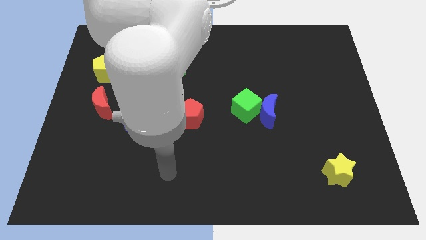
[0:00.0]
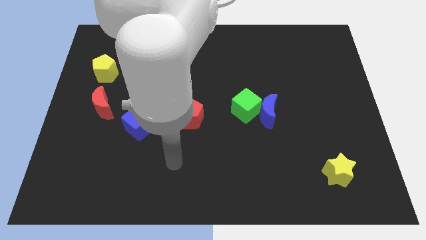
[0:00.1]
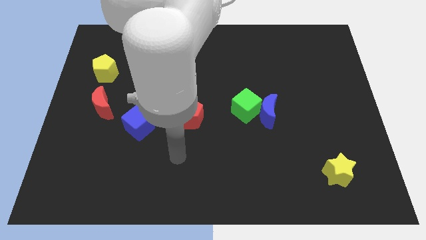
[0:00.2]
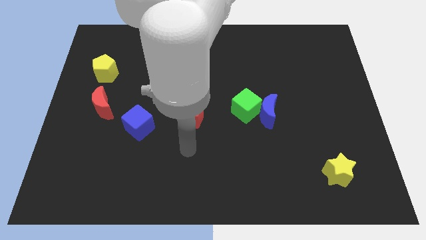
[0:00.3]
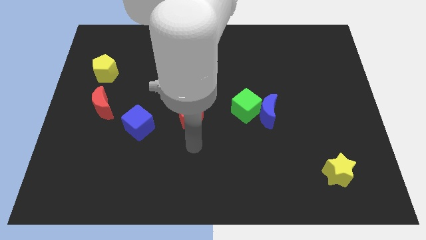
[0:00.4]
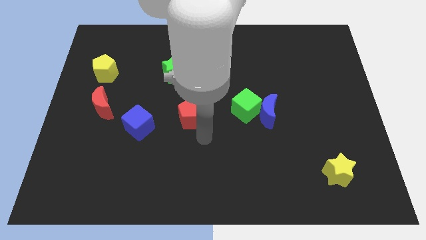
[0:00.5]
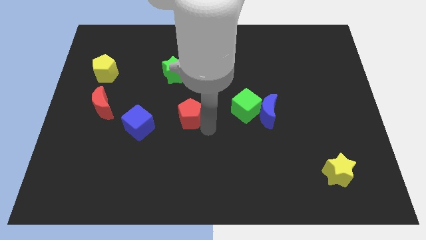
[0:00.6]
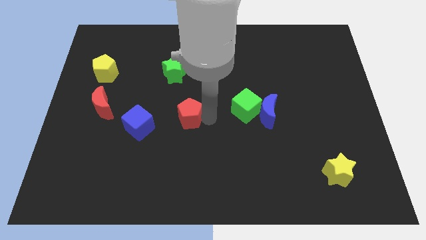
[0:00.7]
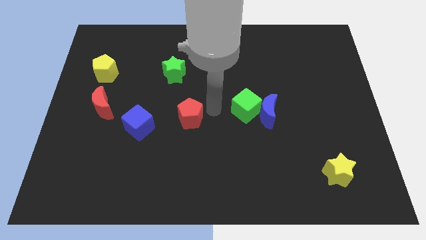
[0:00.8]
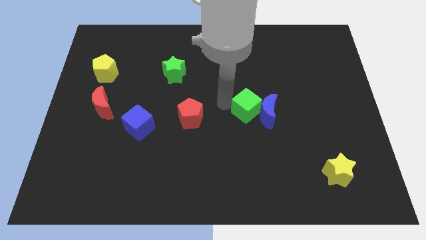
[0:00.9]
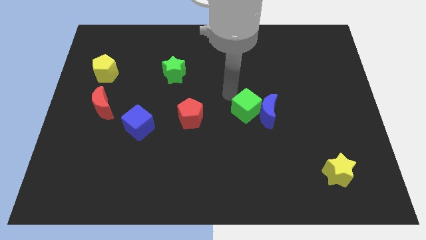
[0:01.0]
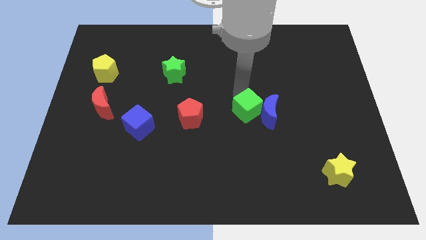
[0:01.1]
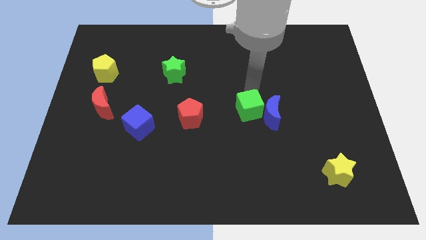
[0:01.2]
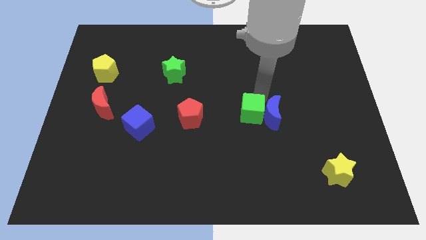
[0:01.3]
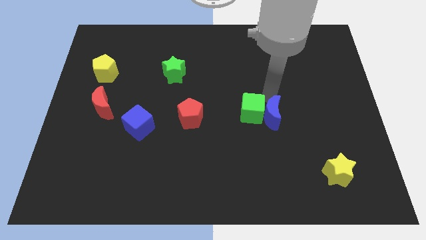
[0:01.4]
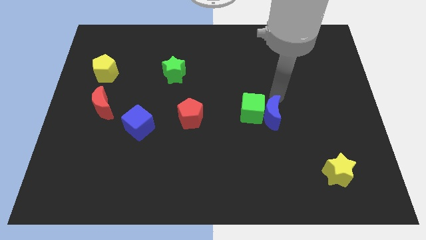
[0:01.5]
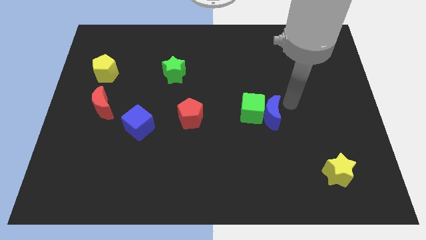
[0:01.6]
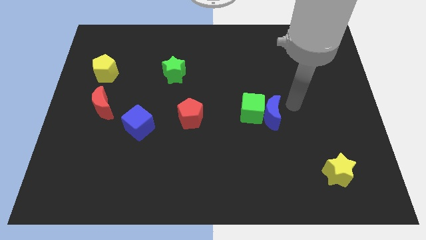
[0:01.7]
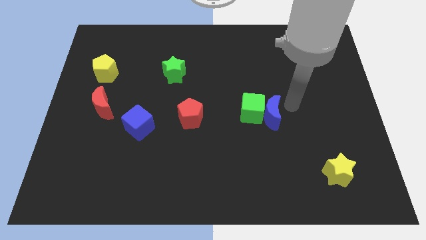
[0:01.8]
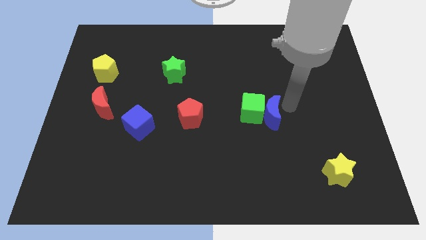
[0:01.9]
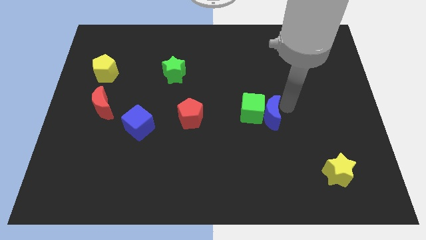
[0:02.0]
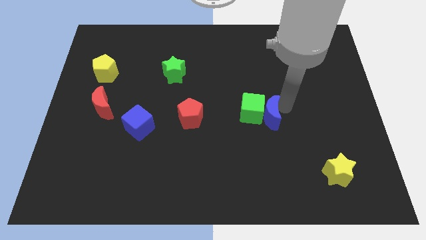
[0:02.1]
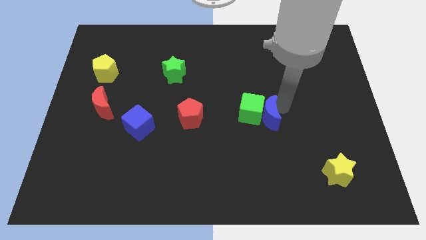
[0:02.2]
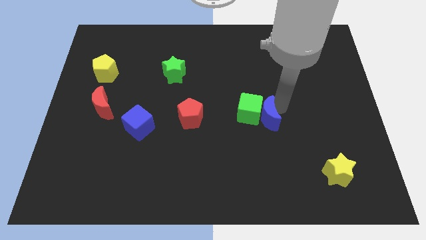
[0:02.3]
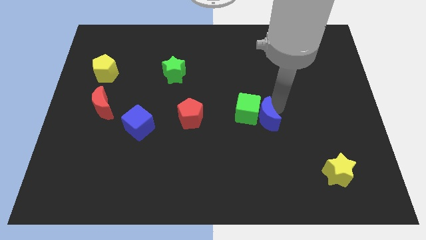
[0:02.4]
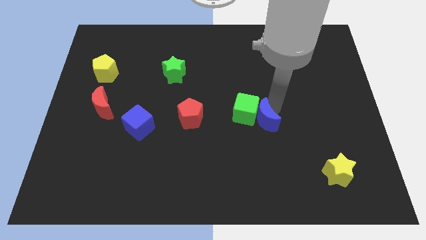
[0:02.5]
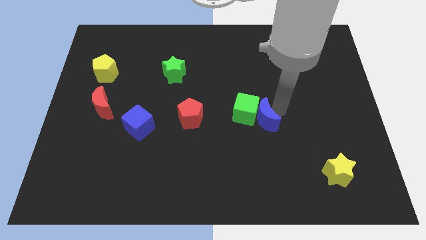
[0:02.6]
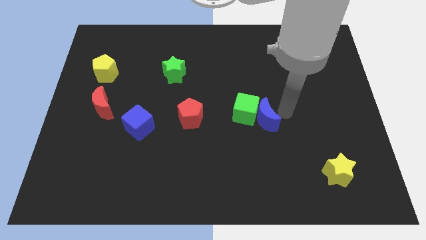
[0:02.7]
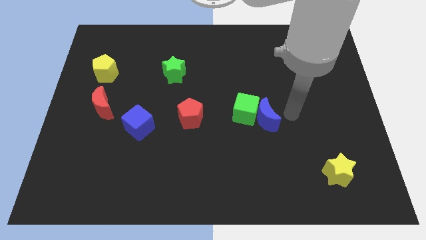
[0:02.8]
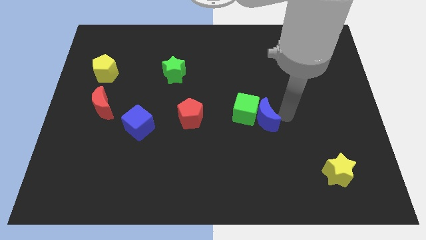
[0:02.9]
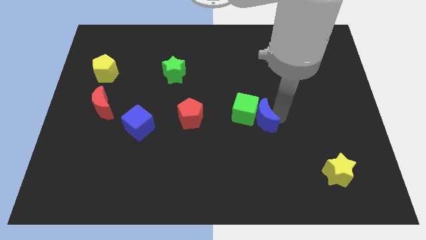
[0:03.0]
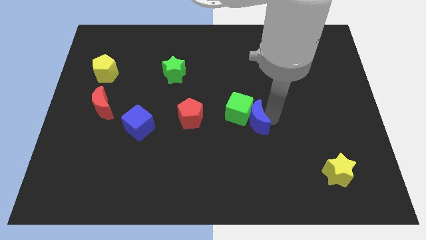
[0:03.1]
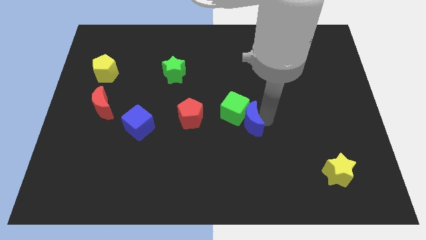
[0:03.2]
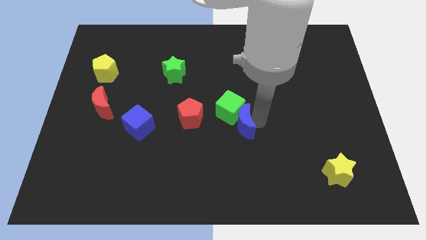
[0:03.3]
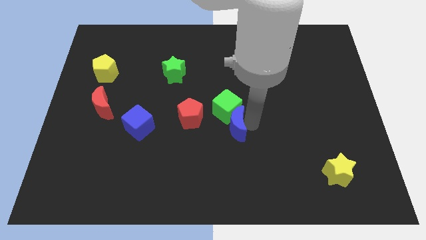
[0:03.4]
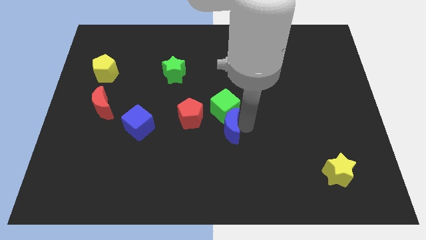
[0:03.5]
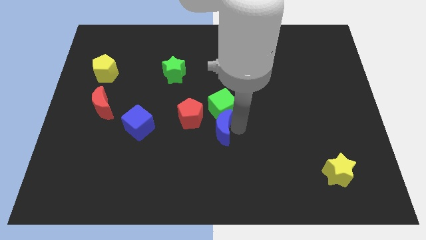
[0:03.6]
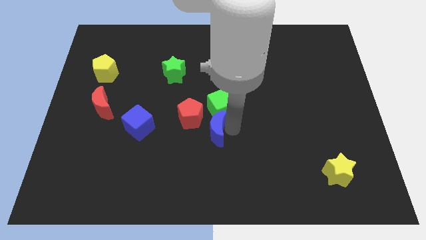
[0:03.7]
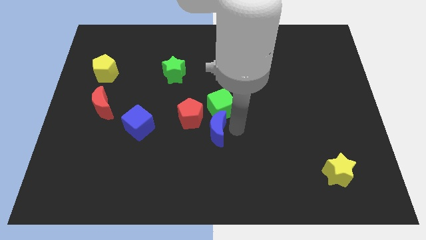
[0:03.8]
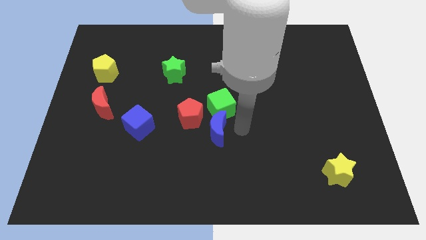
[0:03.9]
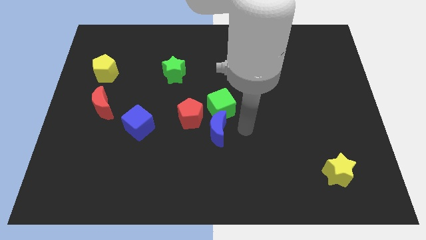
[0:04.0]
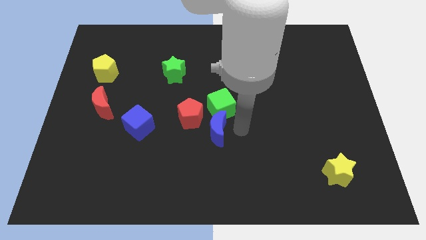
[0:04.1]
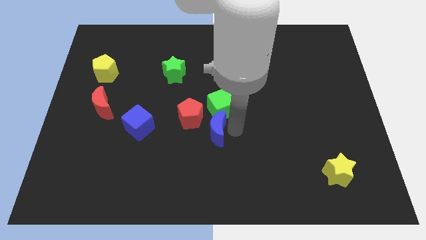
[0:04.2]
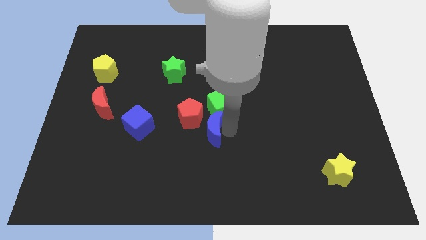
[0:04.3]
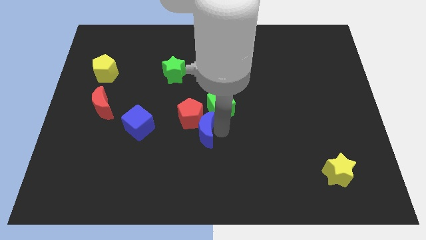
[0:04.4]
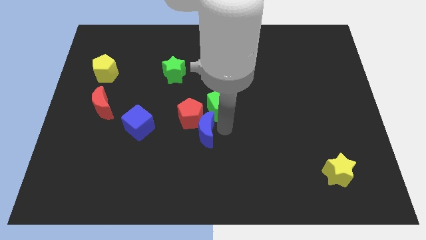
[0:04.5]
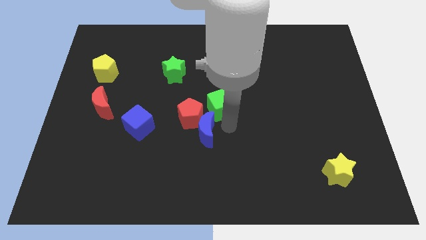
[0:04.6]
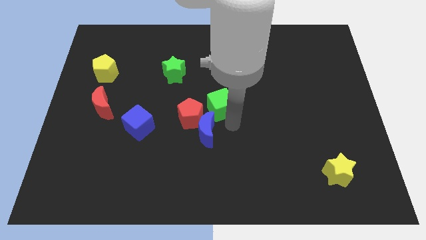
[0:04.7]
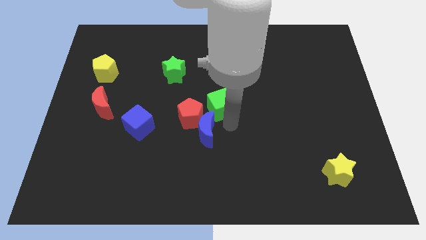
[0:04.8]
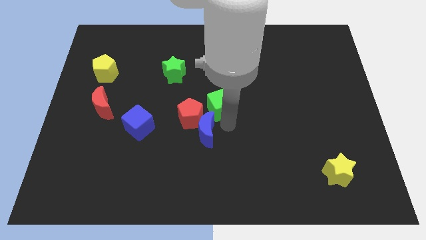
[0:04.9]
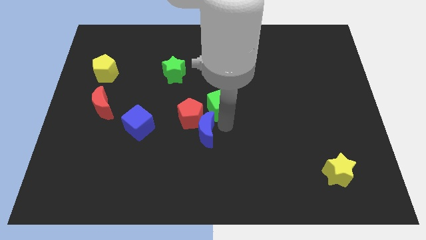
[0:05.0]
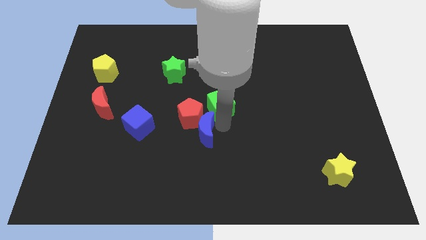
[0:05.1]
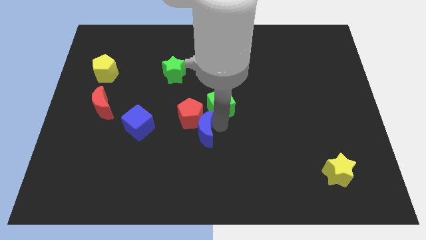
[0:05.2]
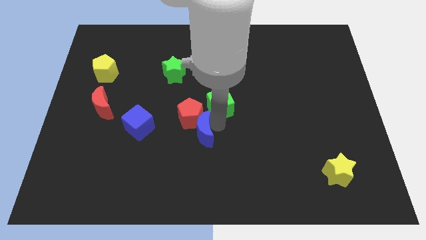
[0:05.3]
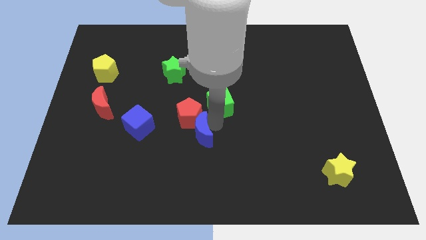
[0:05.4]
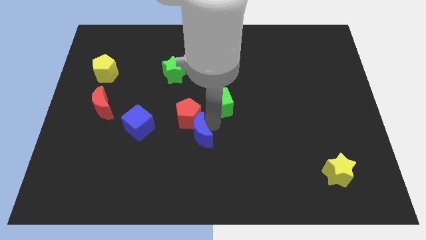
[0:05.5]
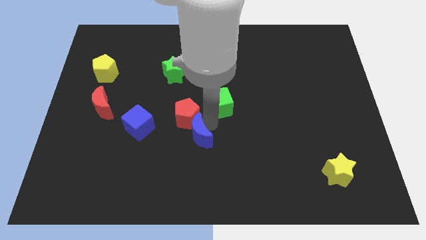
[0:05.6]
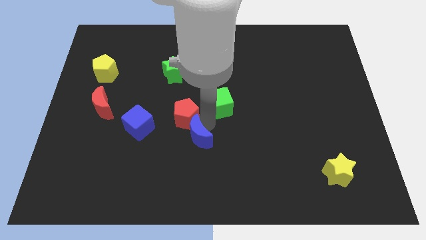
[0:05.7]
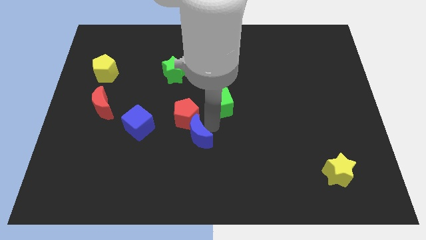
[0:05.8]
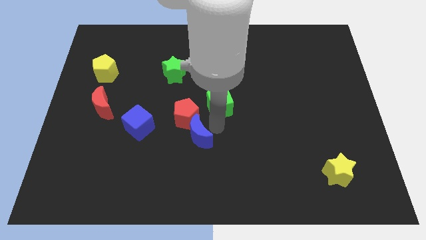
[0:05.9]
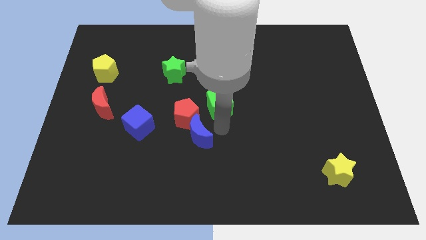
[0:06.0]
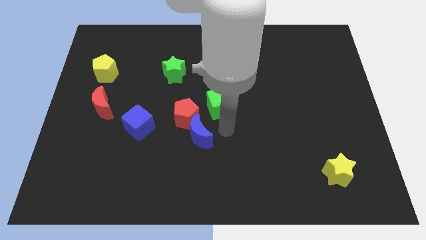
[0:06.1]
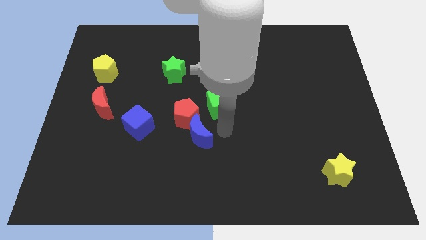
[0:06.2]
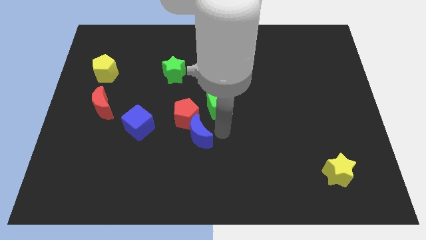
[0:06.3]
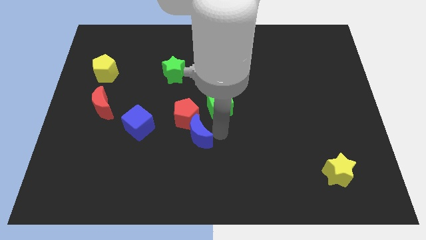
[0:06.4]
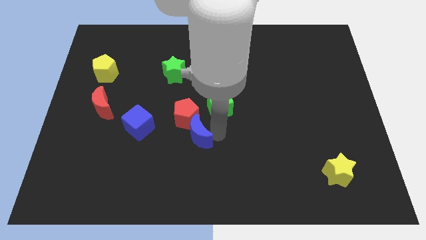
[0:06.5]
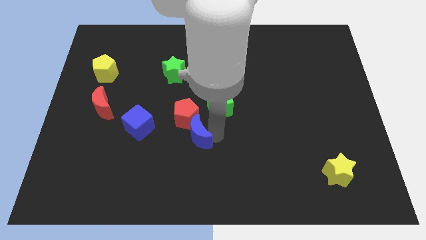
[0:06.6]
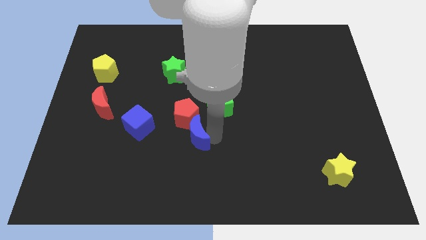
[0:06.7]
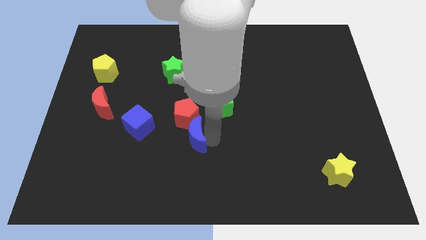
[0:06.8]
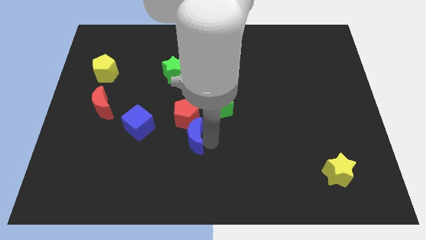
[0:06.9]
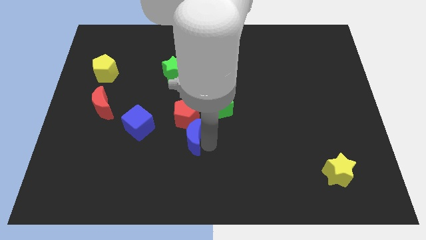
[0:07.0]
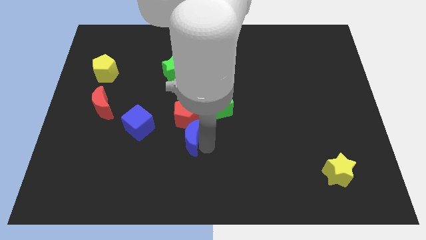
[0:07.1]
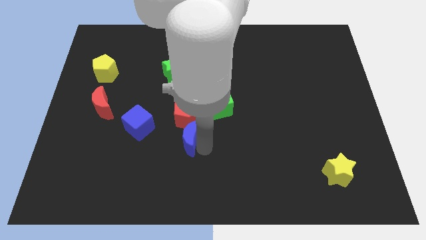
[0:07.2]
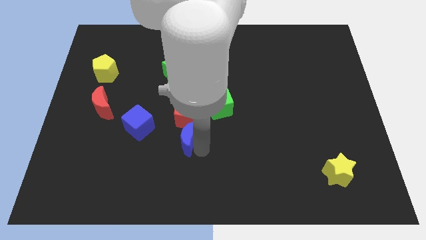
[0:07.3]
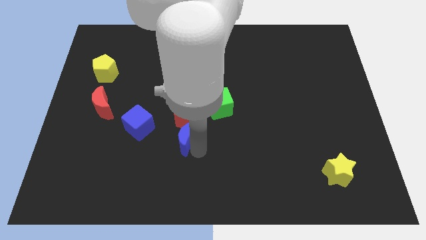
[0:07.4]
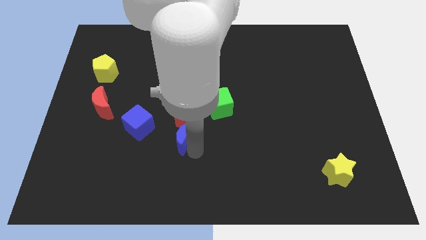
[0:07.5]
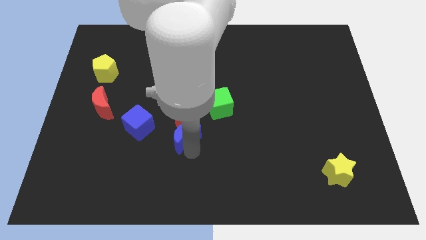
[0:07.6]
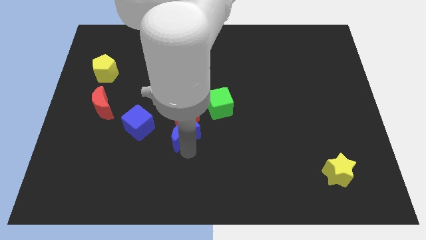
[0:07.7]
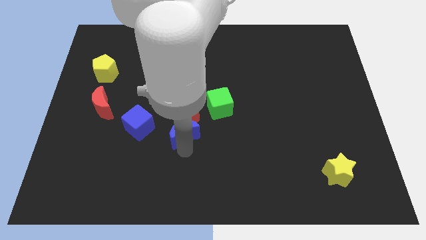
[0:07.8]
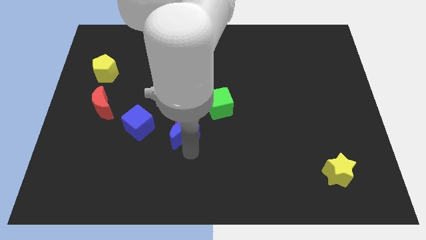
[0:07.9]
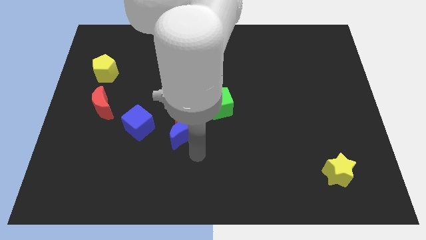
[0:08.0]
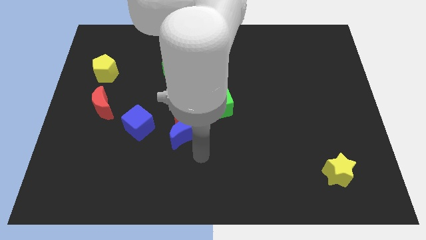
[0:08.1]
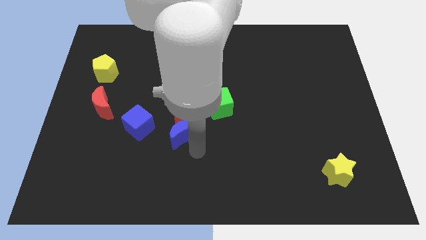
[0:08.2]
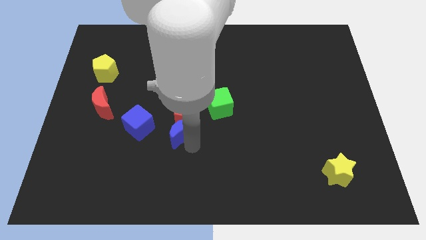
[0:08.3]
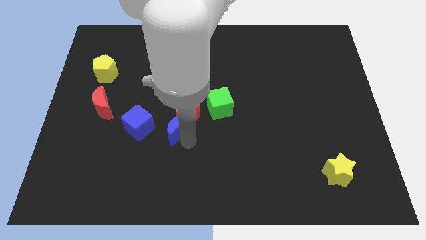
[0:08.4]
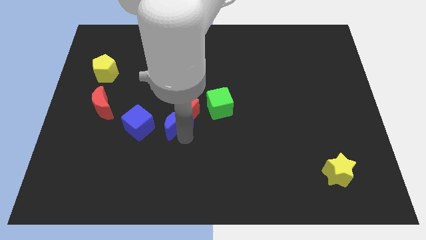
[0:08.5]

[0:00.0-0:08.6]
slide the blue moon left
